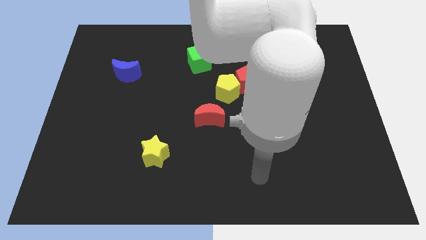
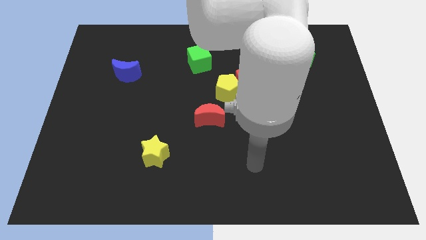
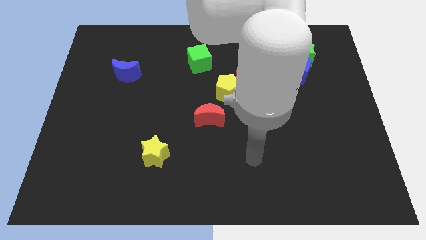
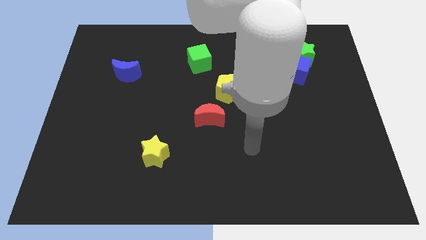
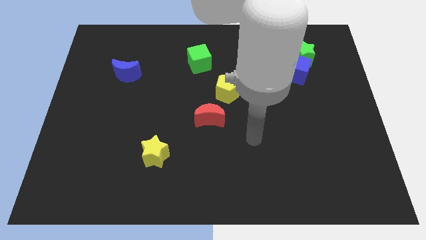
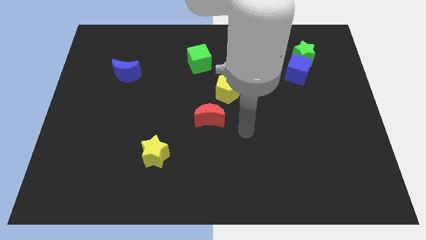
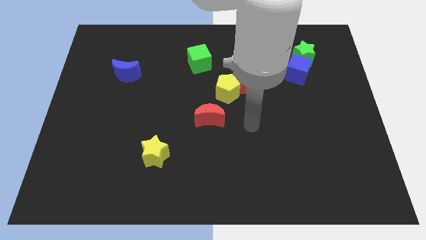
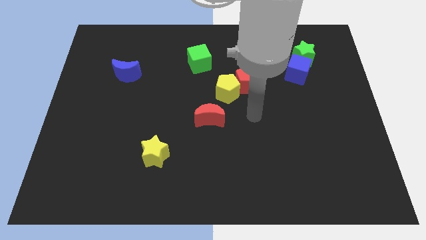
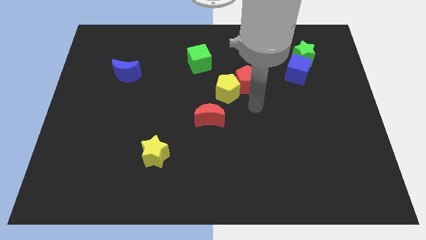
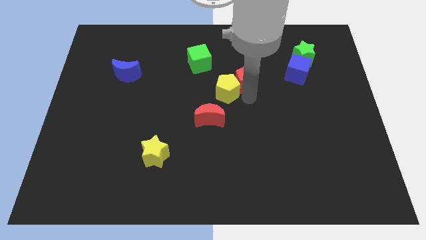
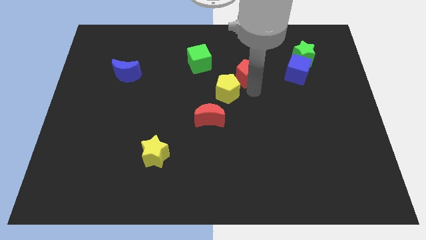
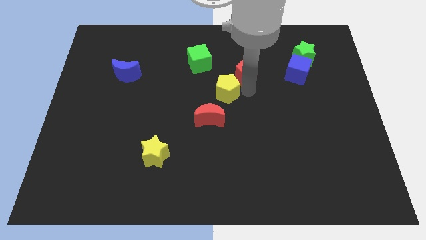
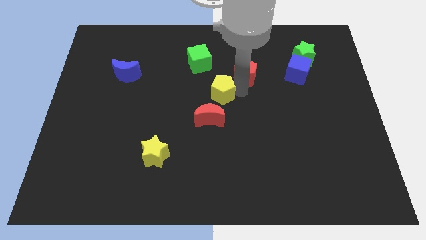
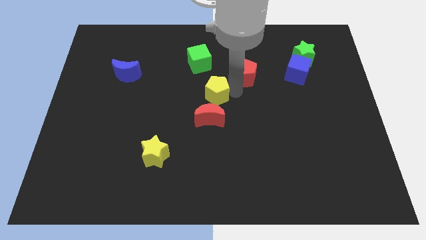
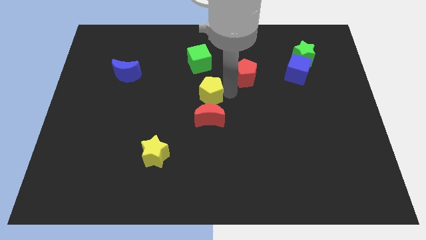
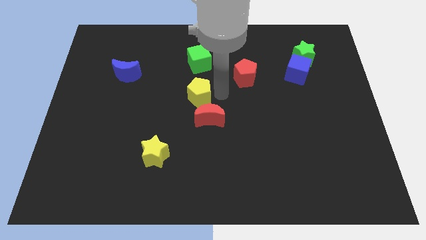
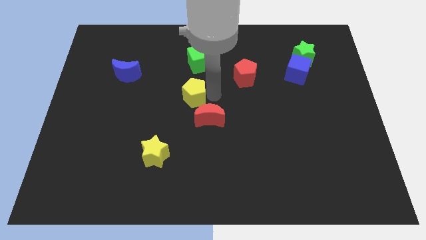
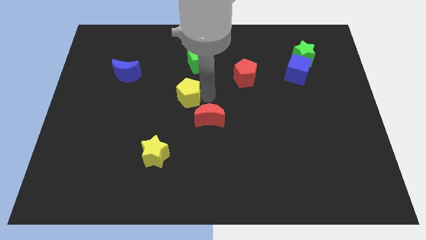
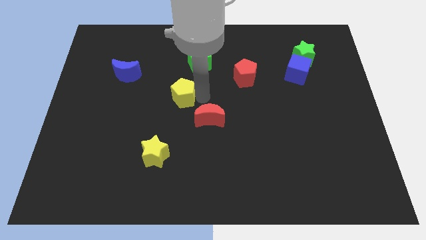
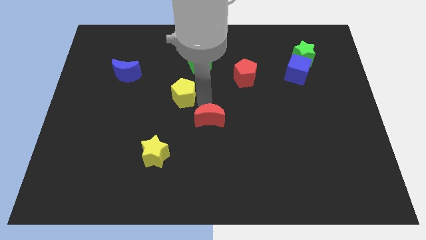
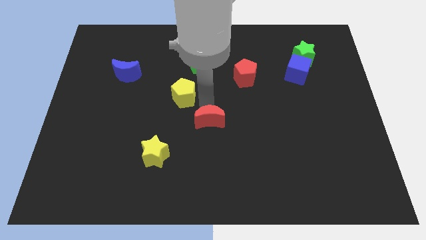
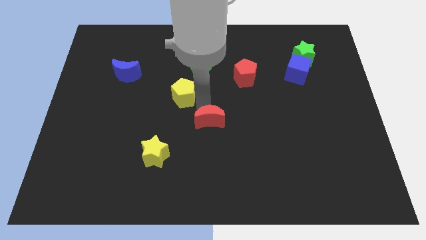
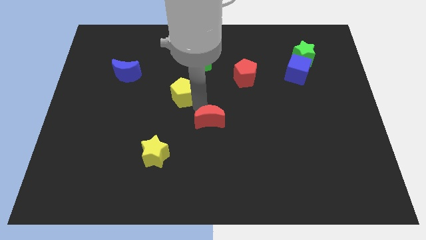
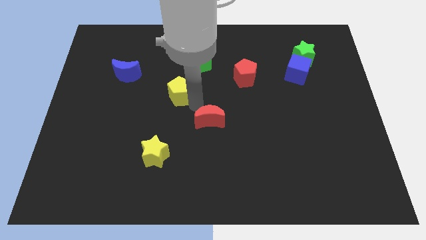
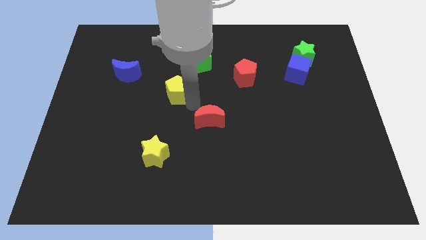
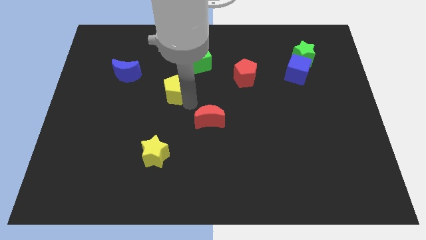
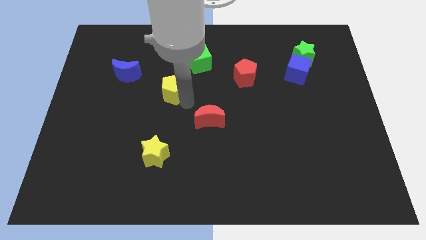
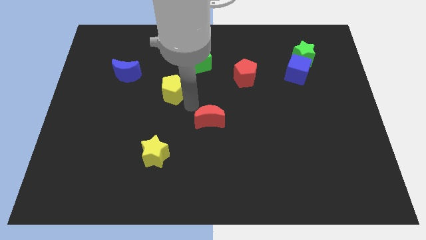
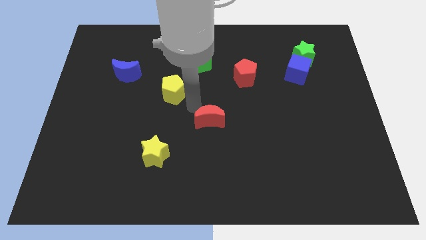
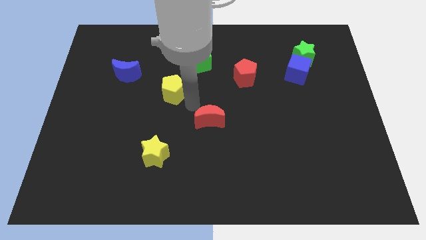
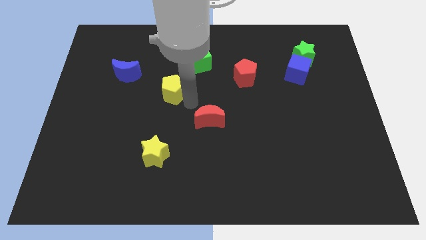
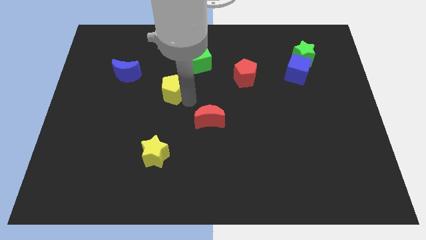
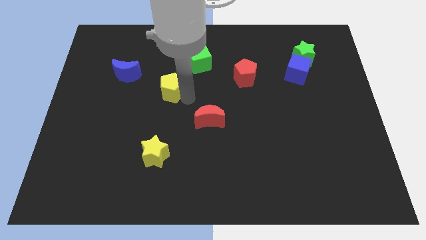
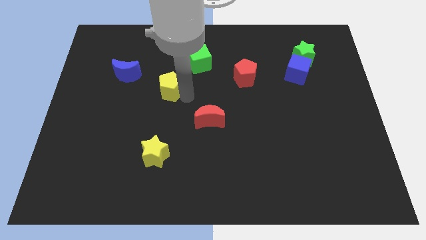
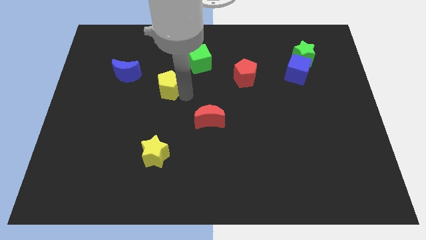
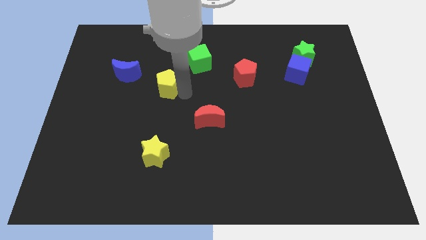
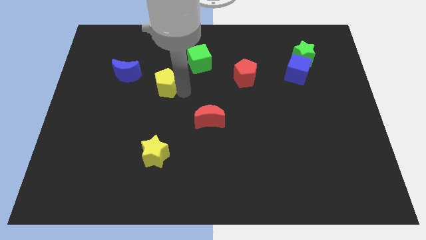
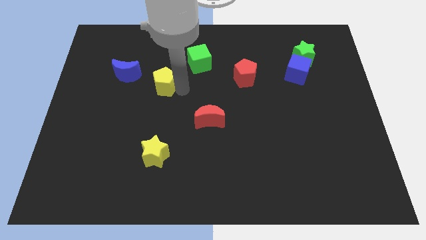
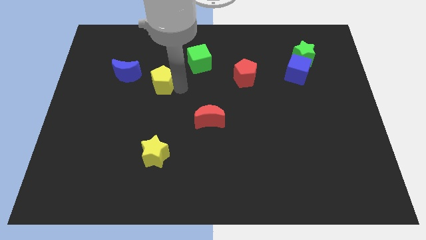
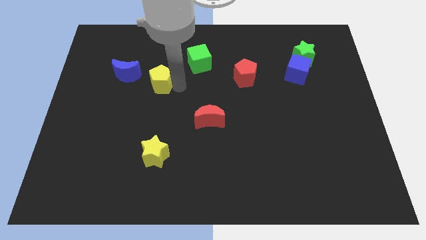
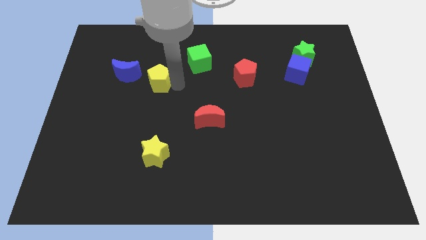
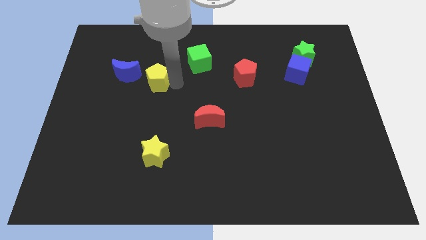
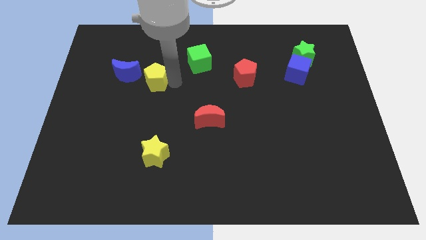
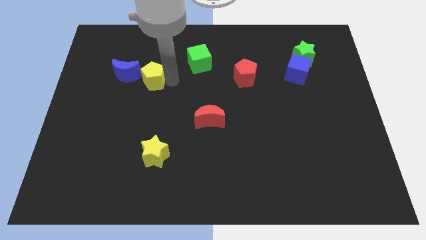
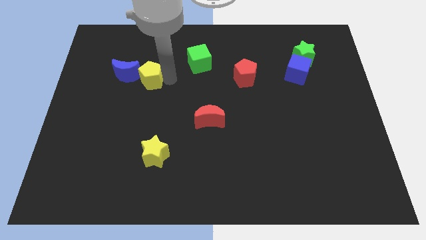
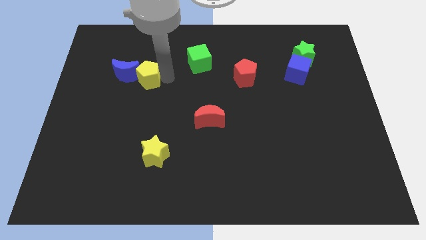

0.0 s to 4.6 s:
slide the yellow pentagon to the blue moon

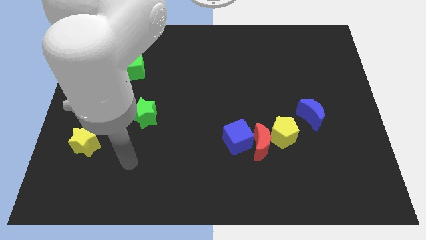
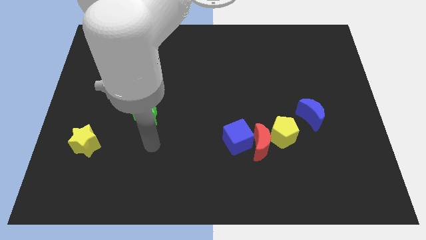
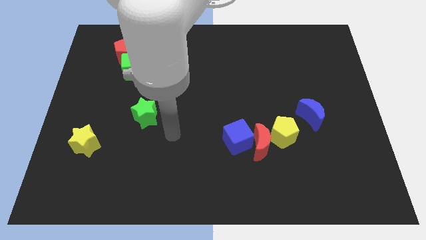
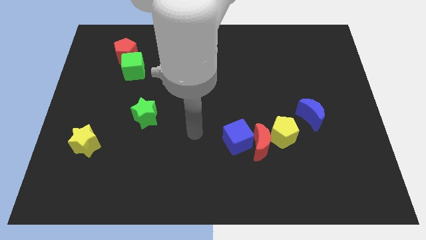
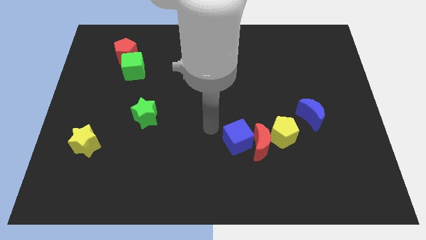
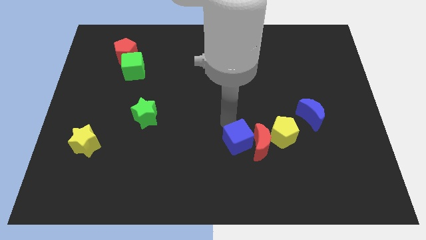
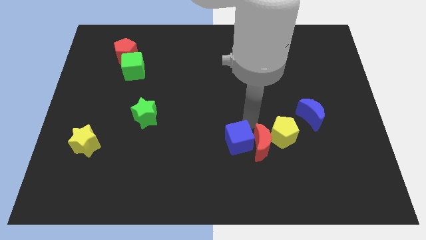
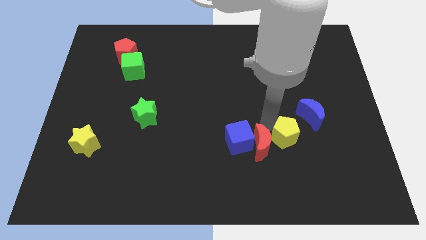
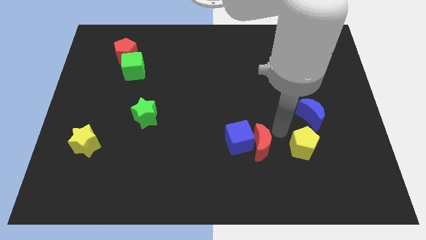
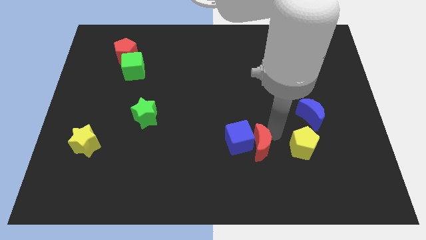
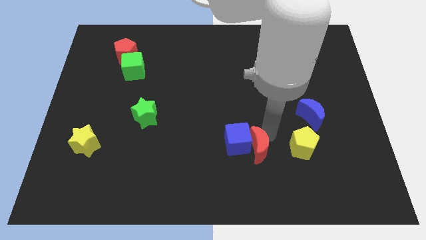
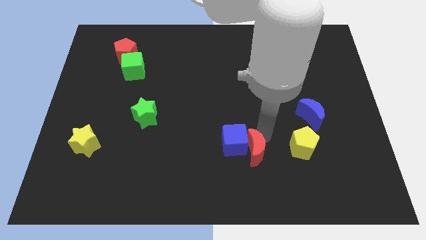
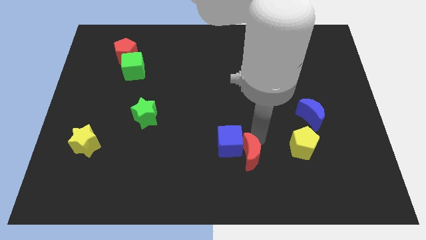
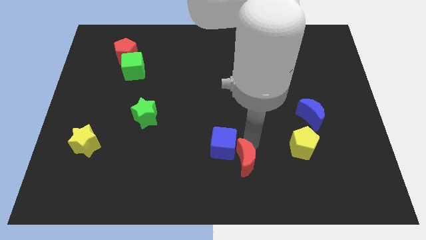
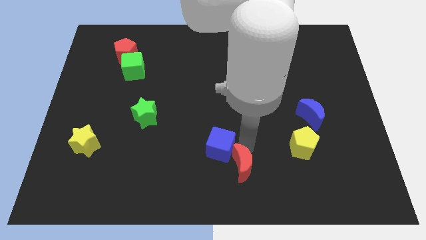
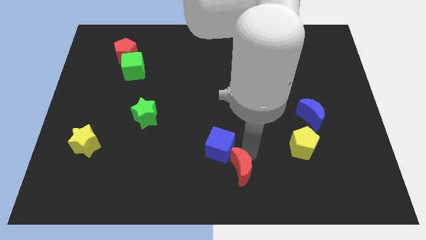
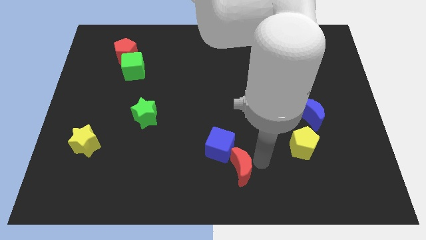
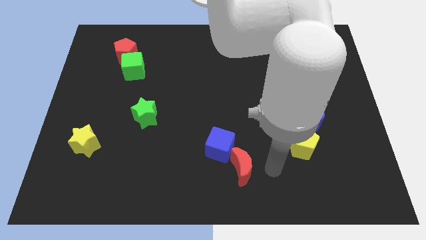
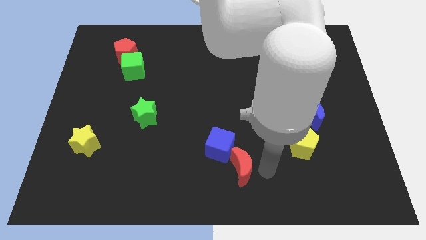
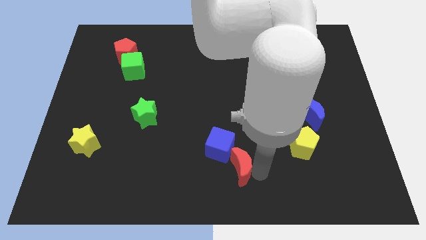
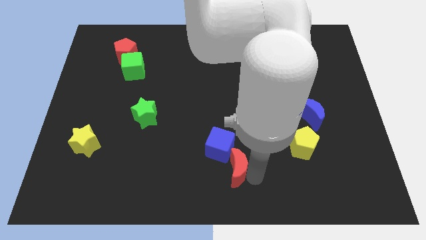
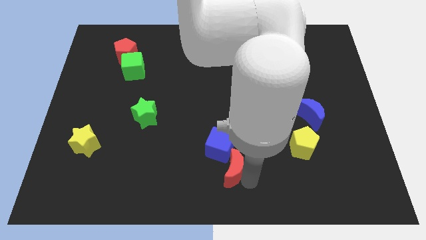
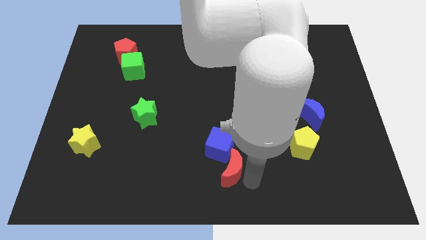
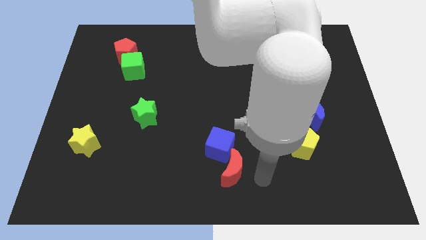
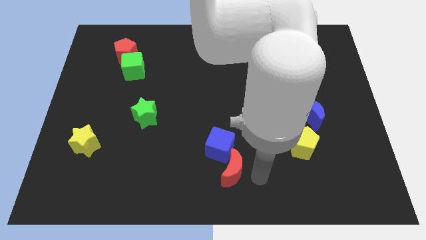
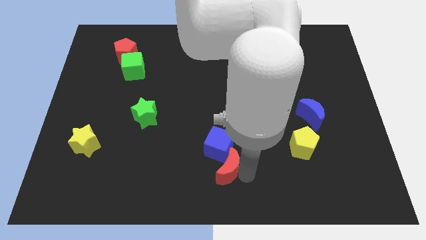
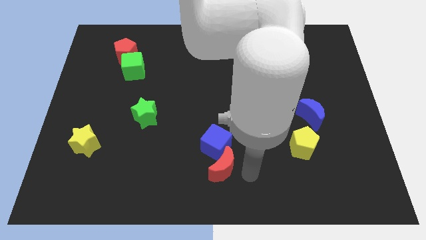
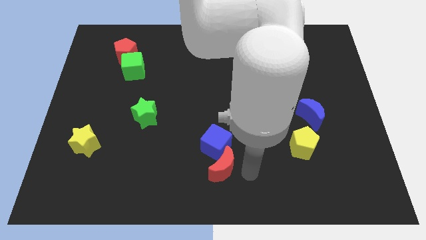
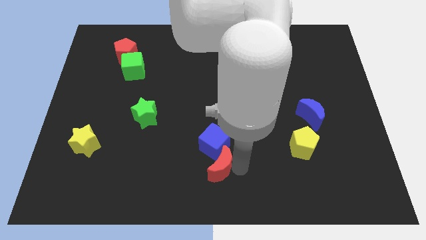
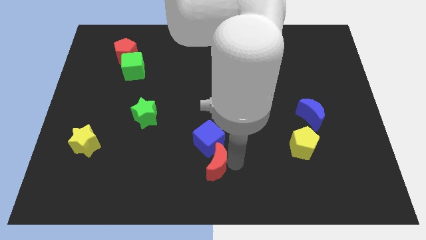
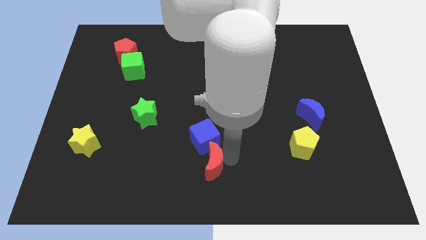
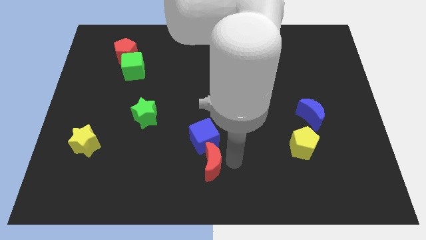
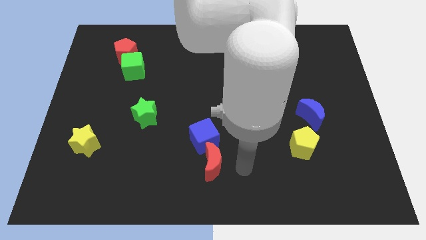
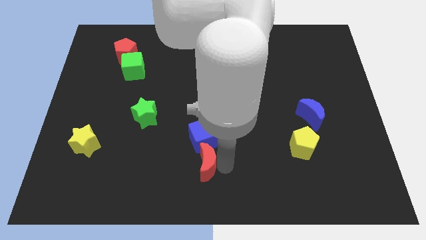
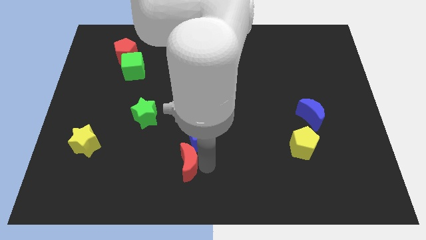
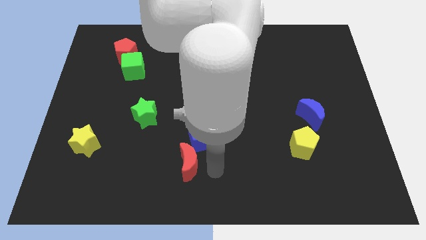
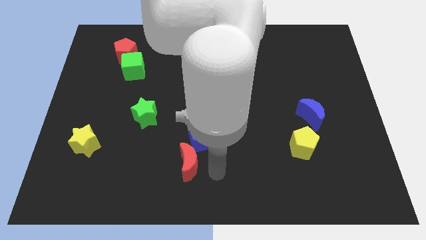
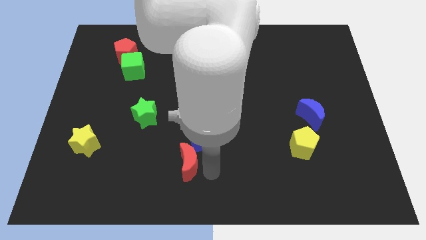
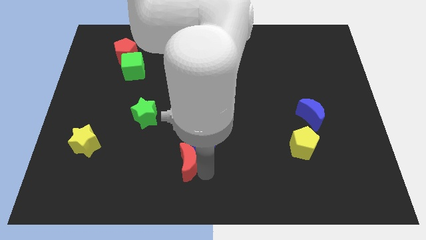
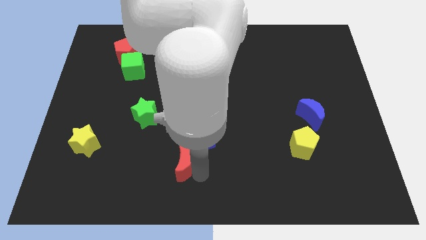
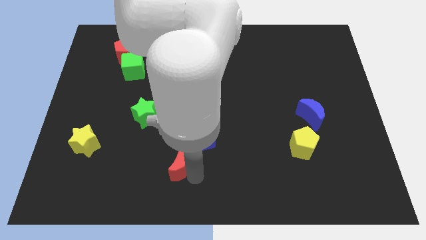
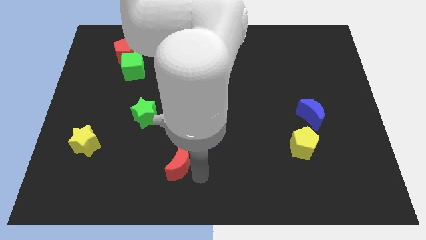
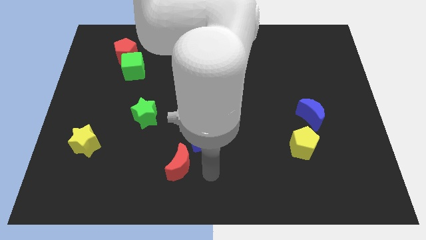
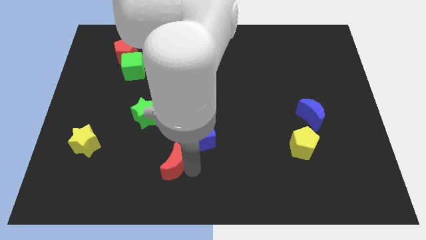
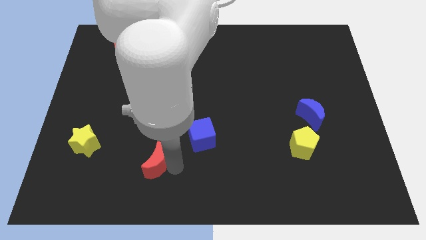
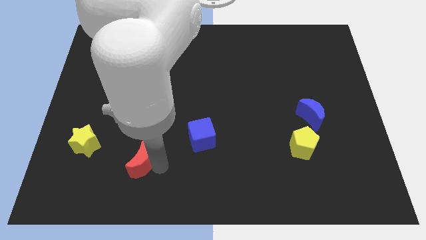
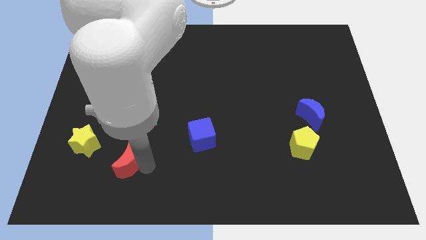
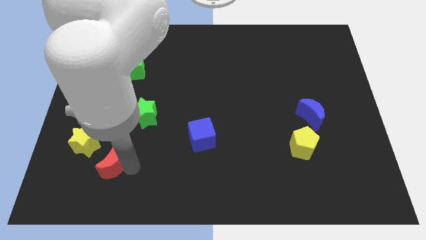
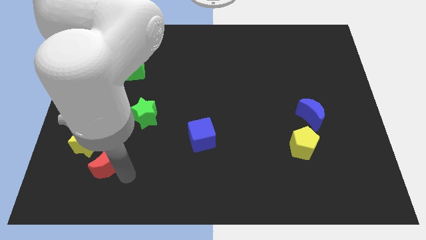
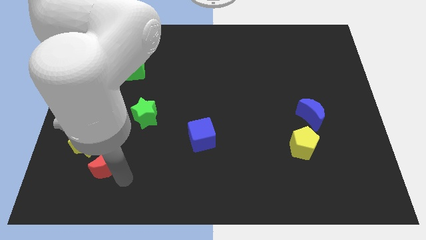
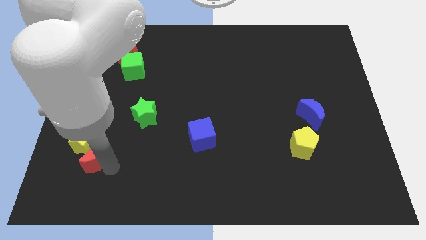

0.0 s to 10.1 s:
put the red moon close to the yellow star
